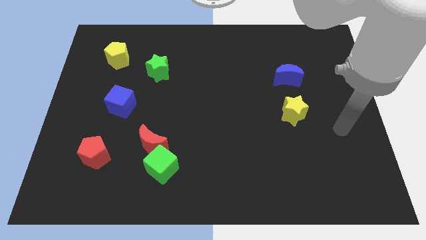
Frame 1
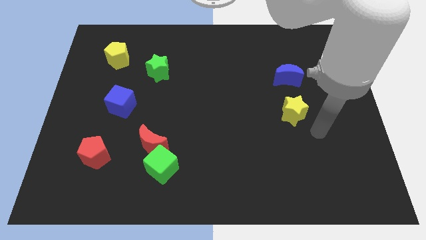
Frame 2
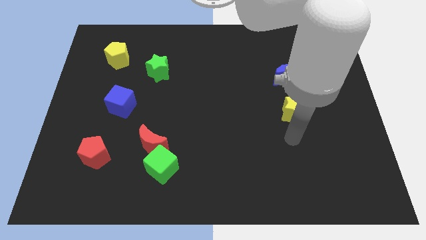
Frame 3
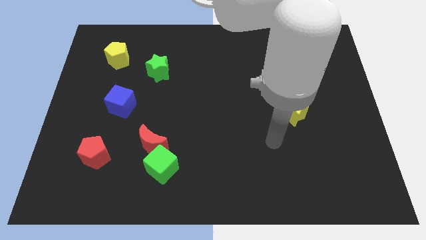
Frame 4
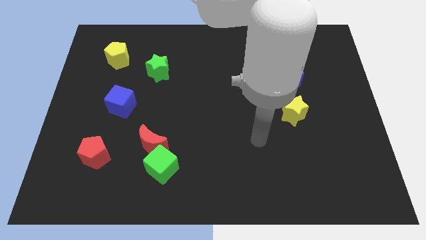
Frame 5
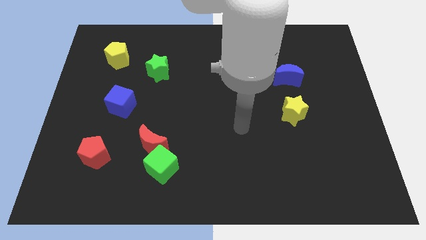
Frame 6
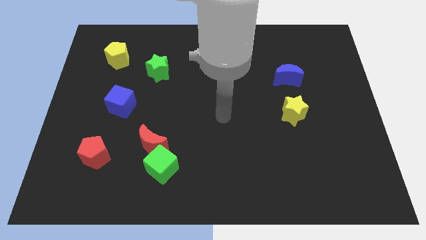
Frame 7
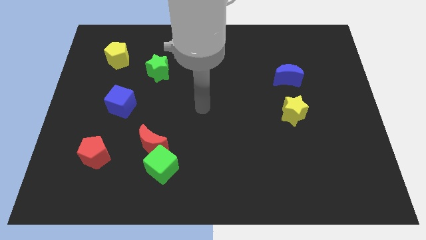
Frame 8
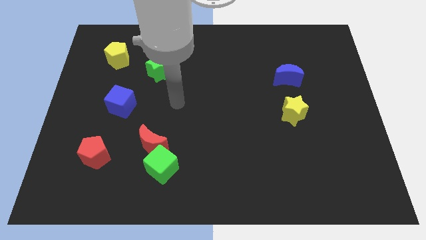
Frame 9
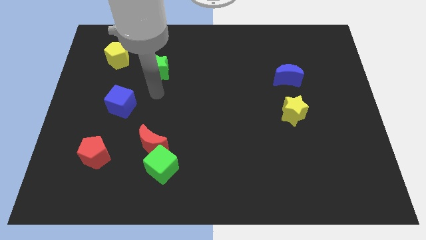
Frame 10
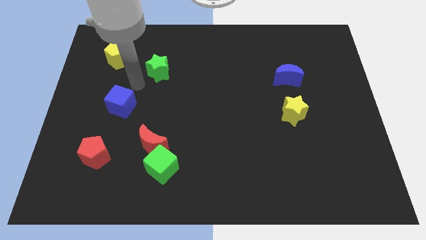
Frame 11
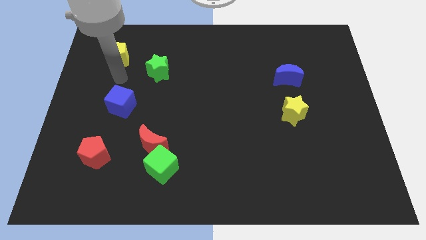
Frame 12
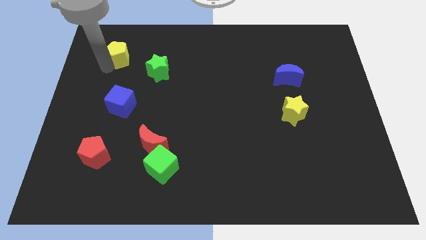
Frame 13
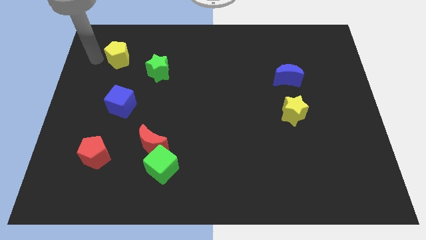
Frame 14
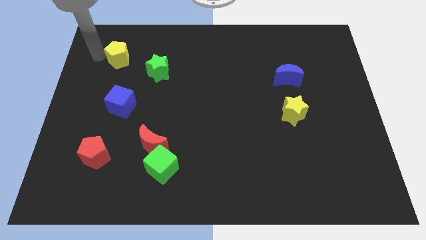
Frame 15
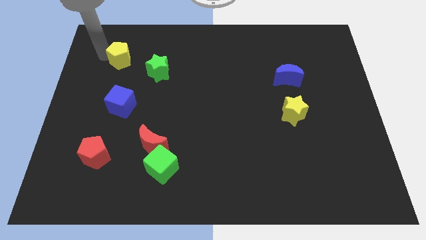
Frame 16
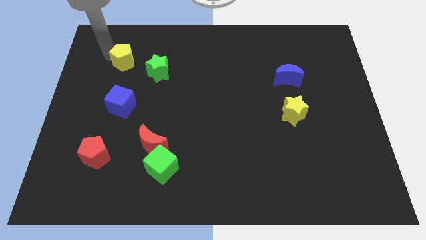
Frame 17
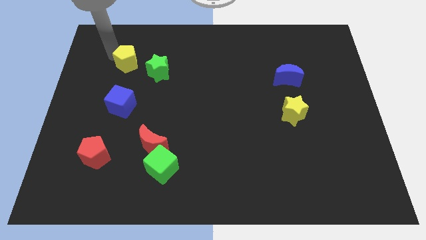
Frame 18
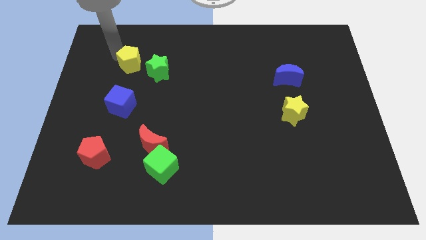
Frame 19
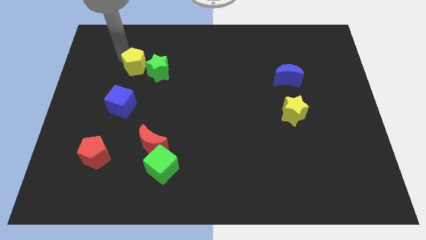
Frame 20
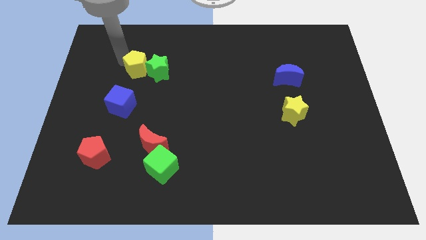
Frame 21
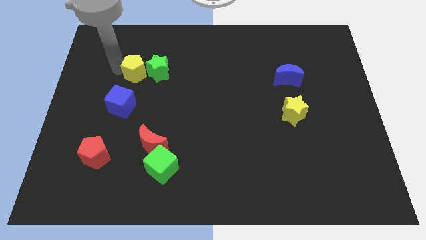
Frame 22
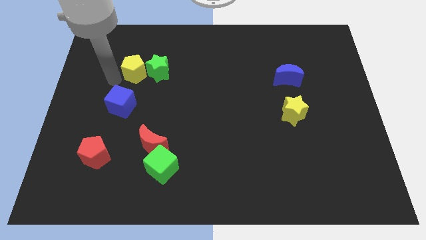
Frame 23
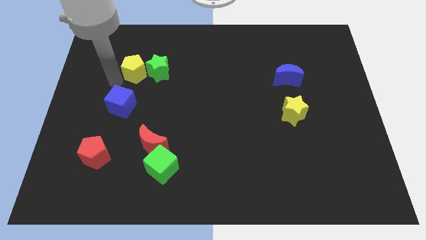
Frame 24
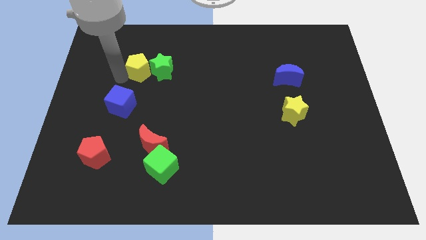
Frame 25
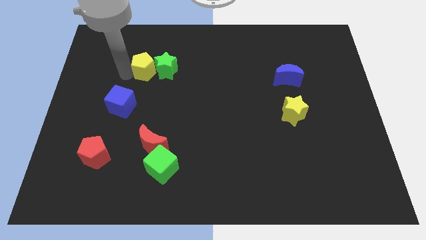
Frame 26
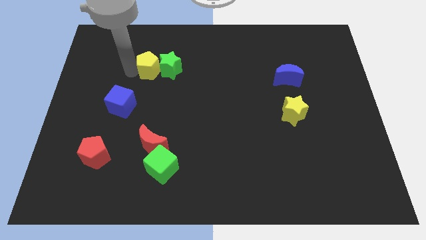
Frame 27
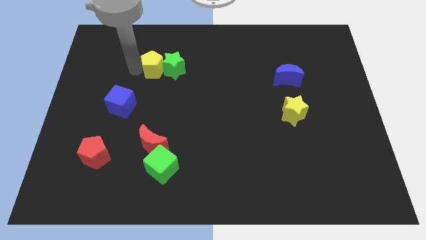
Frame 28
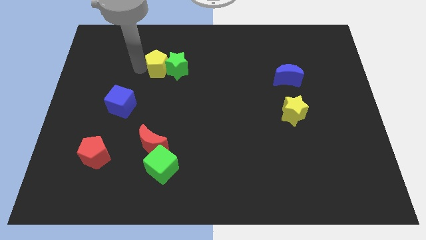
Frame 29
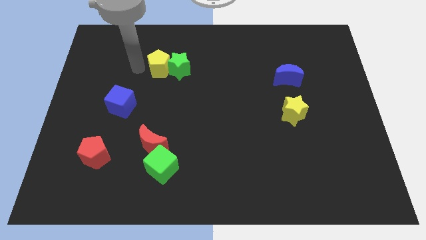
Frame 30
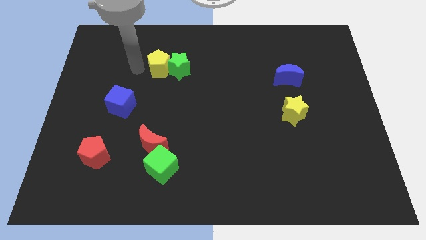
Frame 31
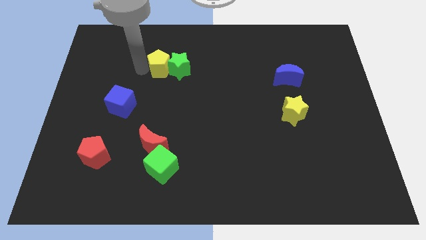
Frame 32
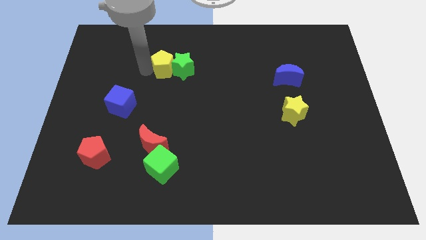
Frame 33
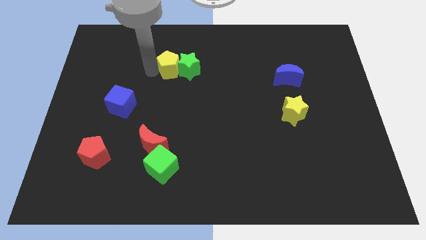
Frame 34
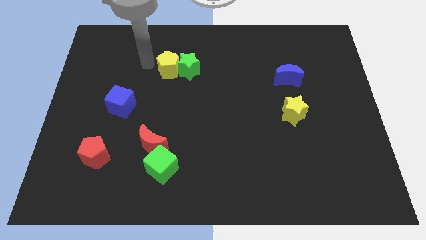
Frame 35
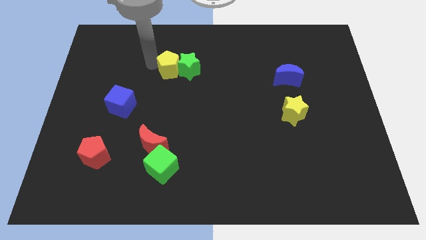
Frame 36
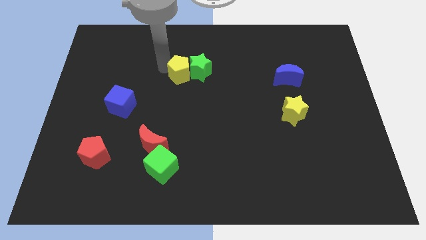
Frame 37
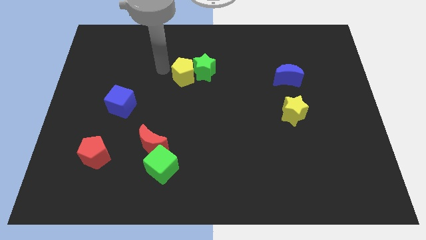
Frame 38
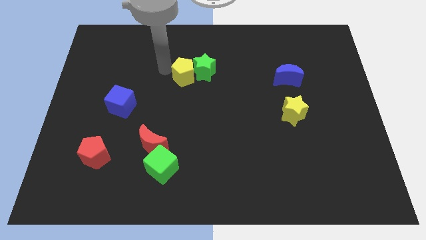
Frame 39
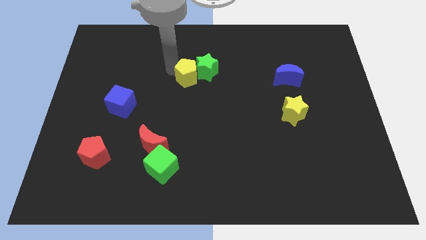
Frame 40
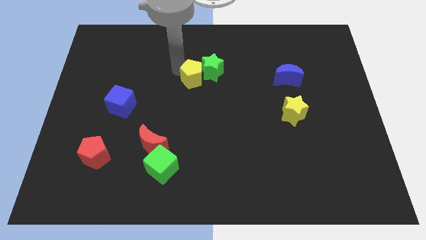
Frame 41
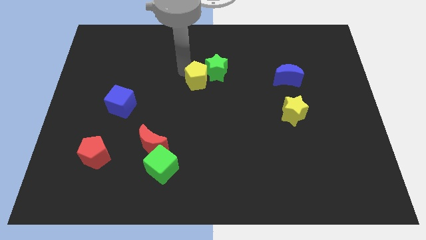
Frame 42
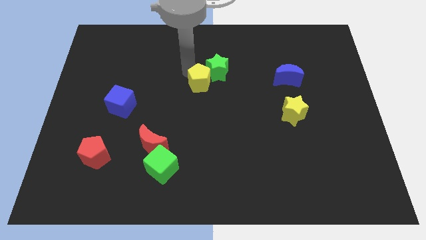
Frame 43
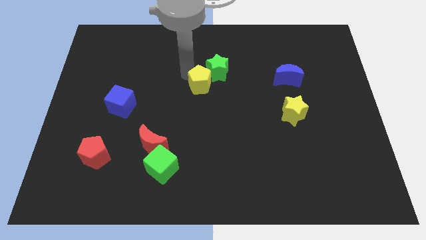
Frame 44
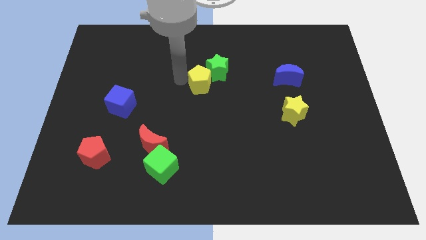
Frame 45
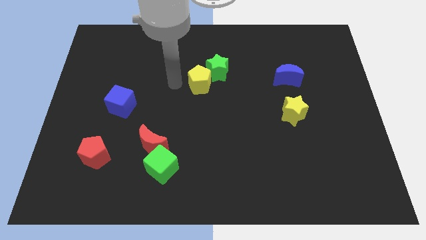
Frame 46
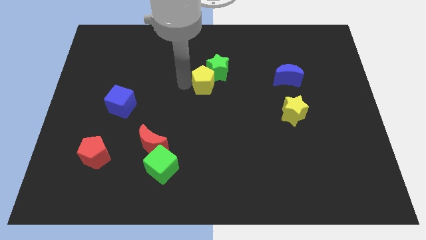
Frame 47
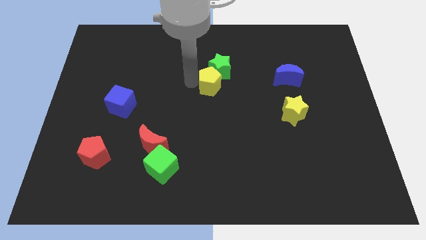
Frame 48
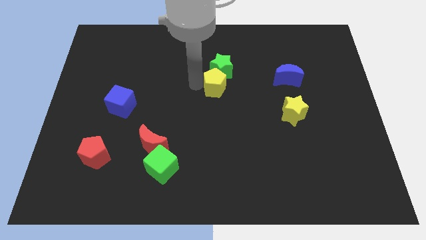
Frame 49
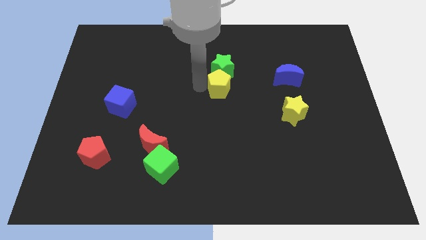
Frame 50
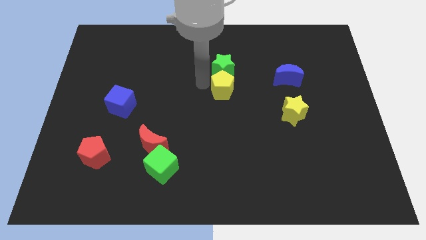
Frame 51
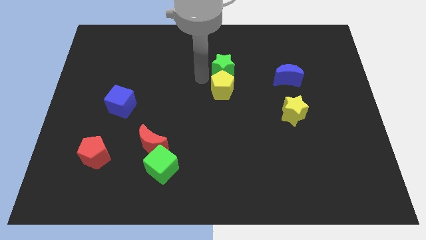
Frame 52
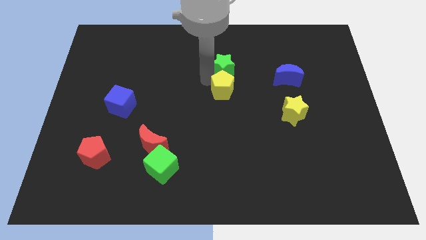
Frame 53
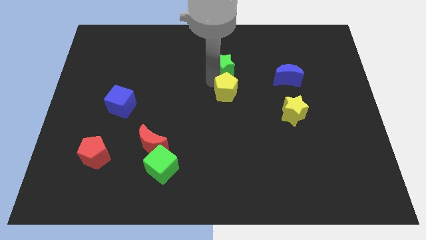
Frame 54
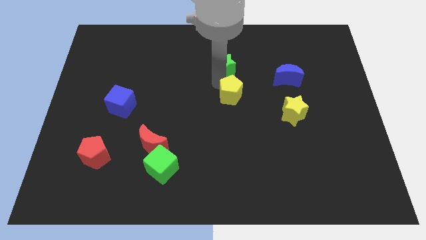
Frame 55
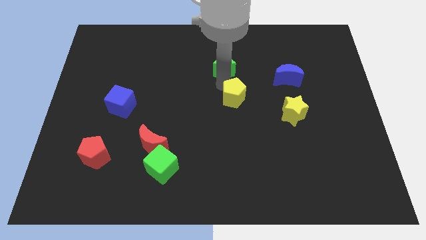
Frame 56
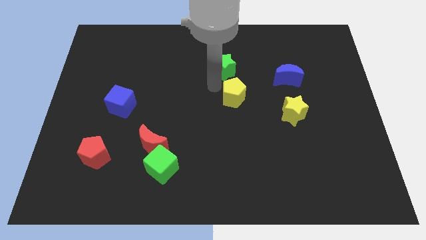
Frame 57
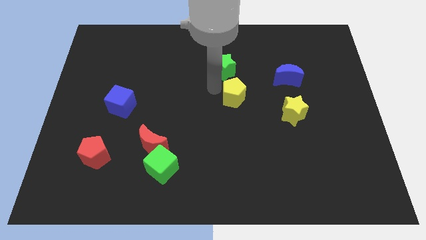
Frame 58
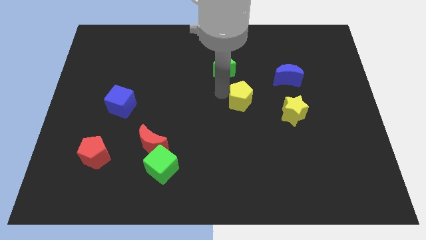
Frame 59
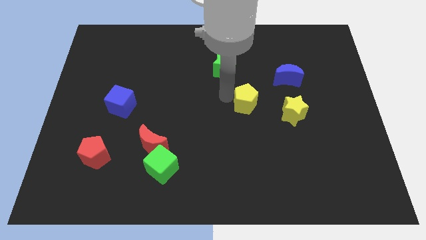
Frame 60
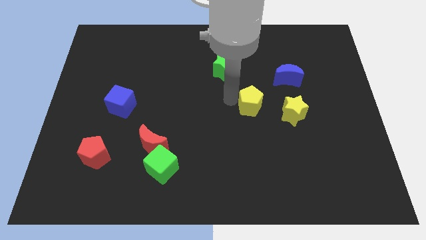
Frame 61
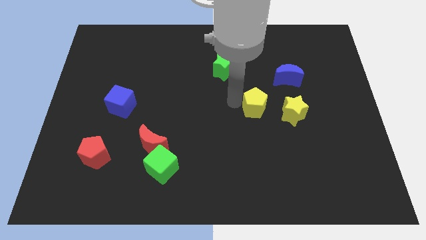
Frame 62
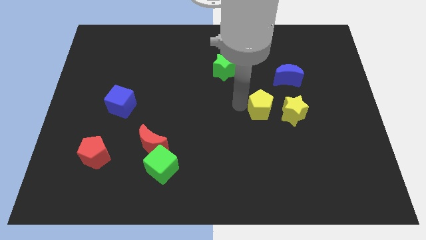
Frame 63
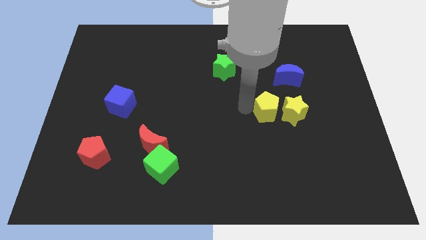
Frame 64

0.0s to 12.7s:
push the yellow pentagon to the yellow star

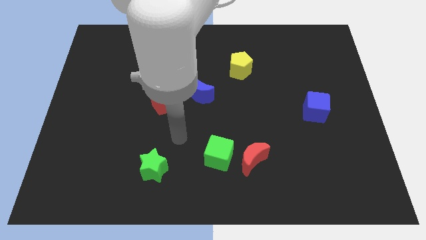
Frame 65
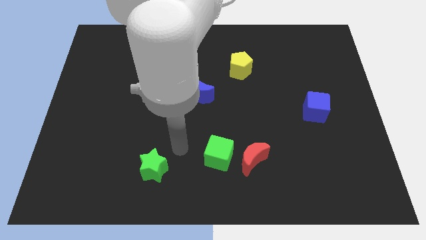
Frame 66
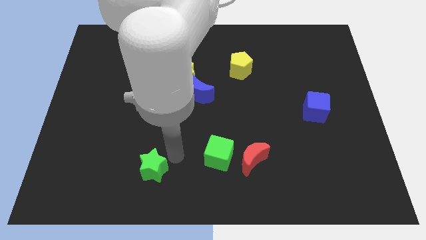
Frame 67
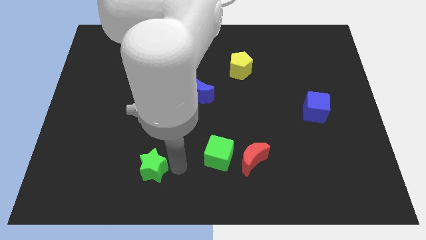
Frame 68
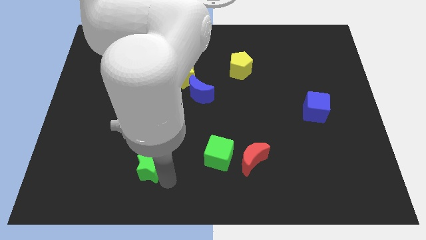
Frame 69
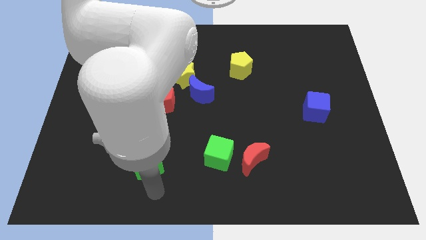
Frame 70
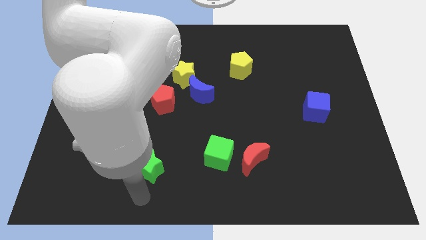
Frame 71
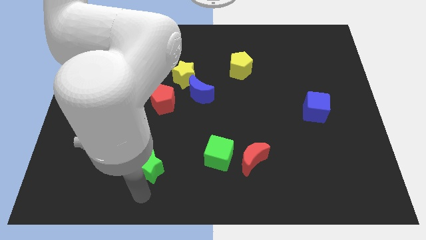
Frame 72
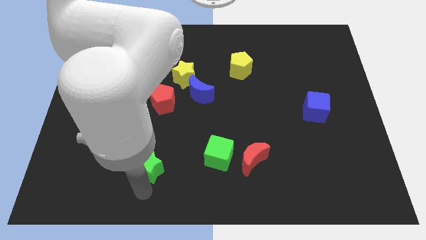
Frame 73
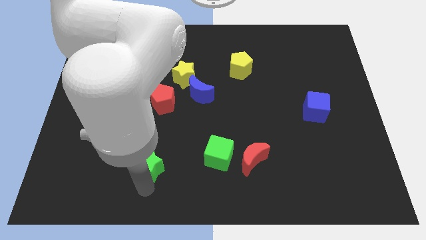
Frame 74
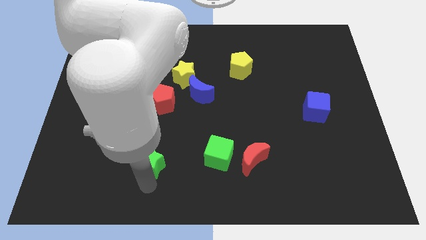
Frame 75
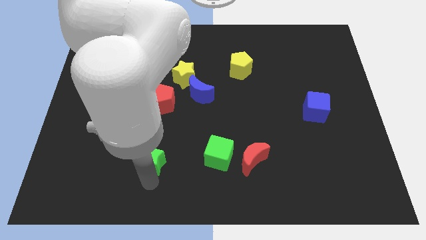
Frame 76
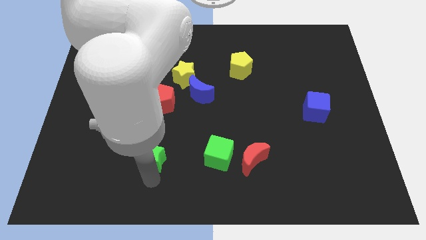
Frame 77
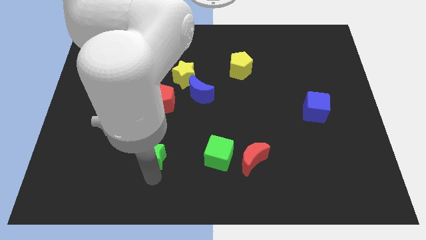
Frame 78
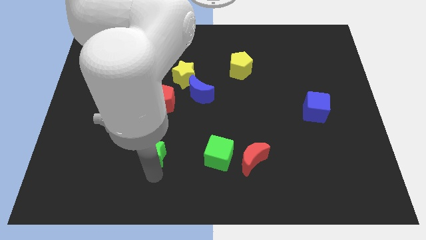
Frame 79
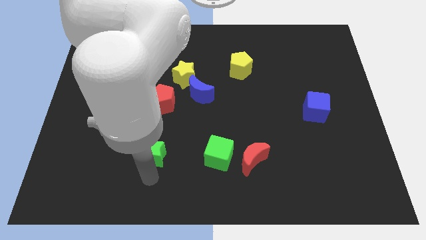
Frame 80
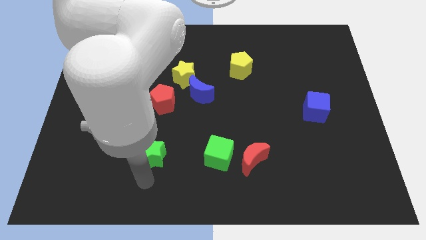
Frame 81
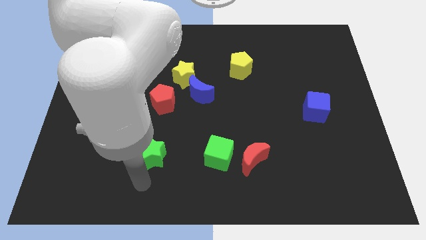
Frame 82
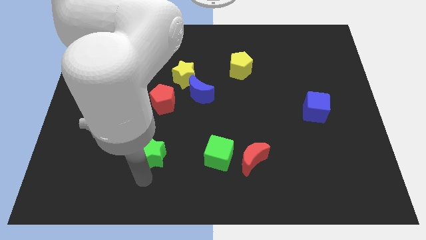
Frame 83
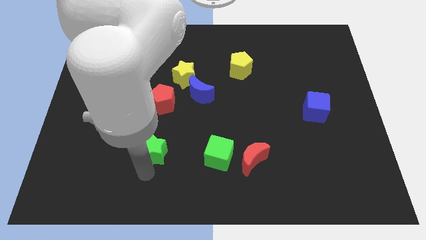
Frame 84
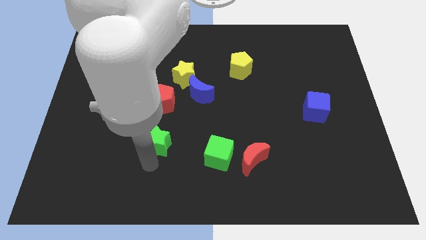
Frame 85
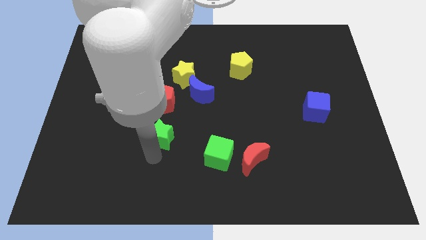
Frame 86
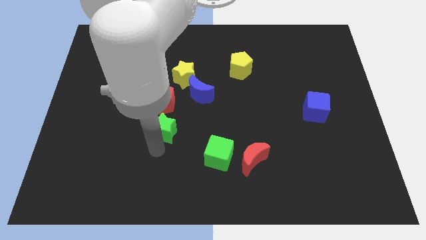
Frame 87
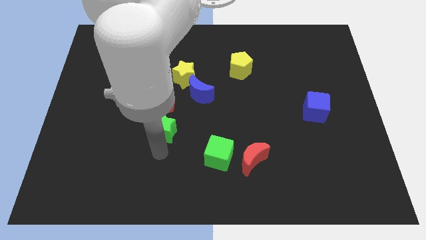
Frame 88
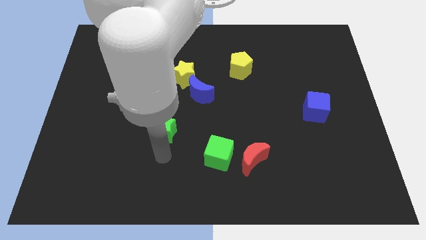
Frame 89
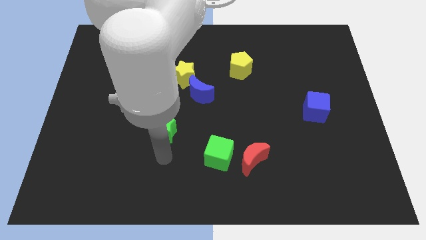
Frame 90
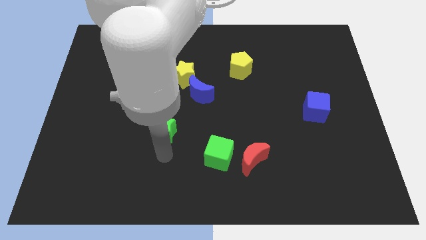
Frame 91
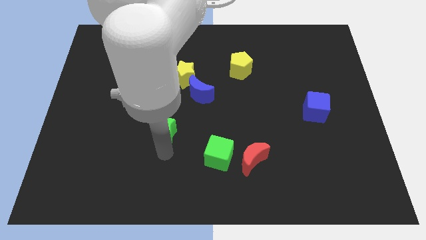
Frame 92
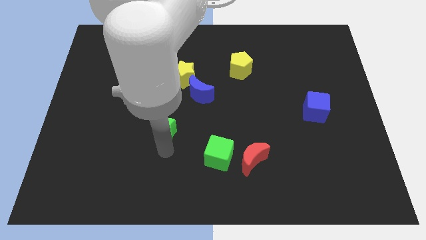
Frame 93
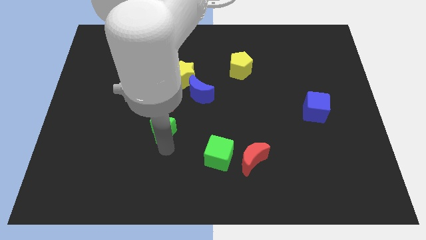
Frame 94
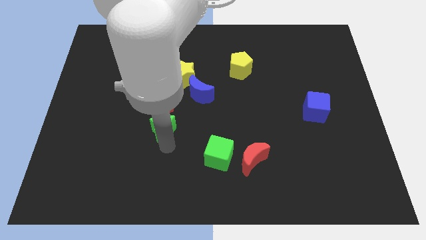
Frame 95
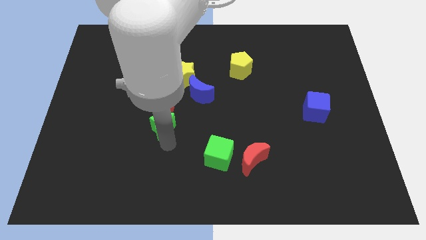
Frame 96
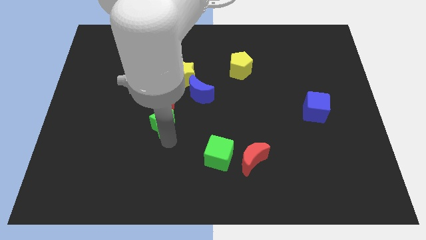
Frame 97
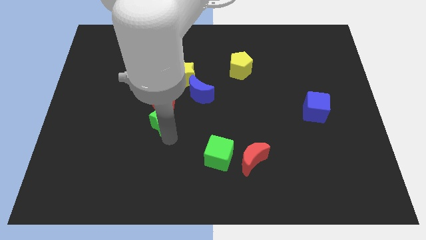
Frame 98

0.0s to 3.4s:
slide the green star towards the red pentagon
